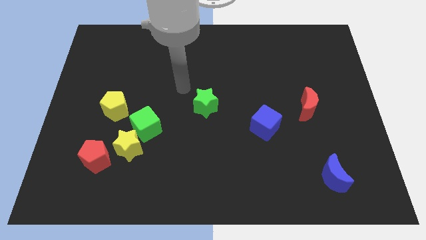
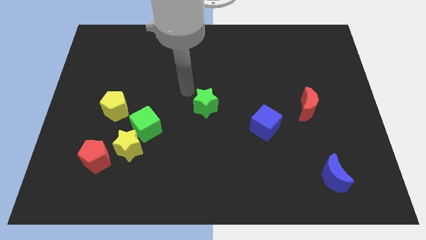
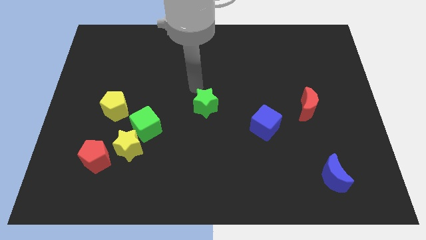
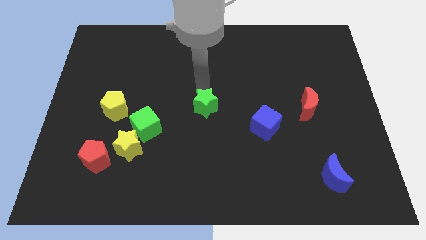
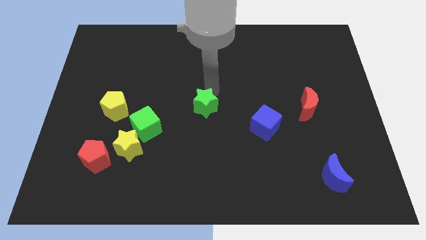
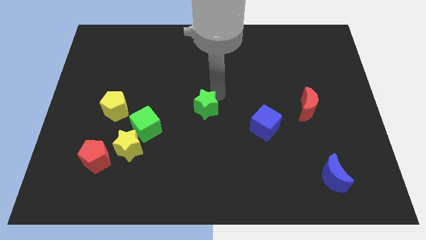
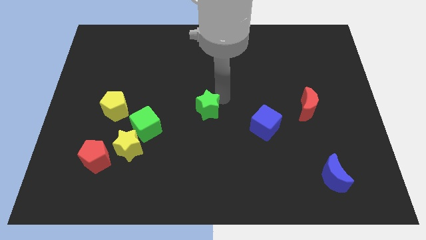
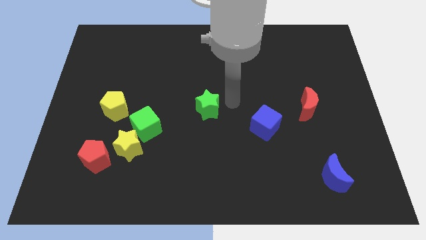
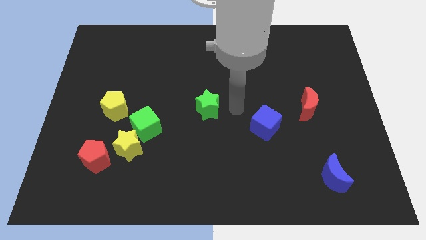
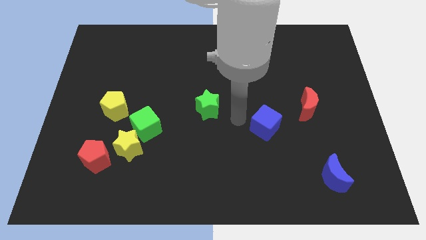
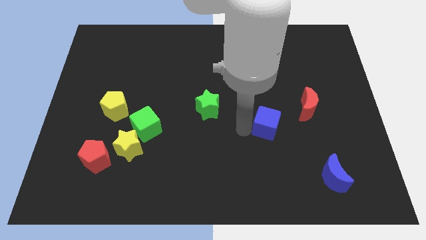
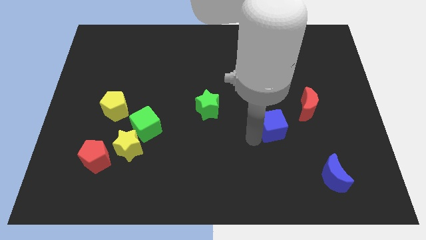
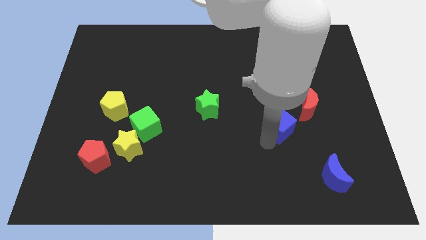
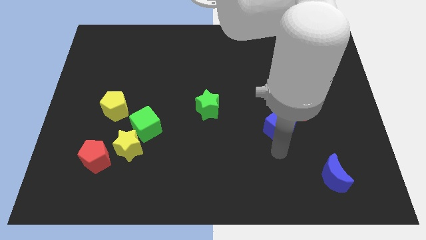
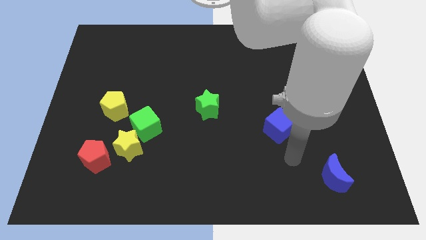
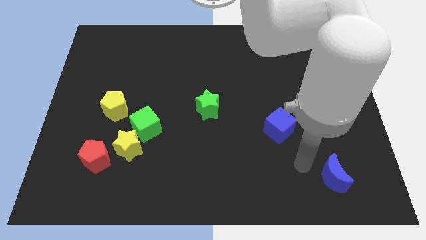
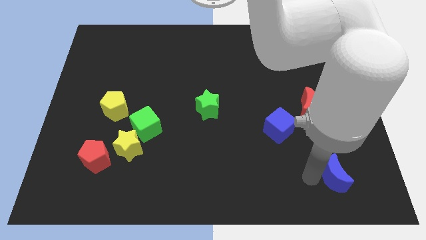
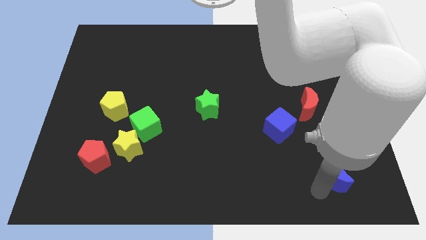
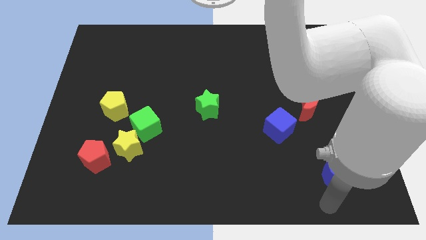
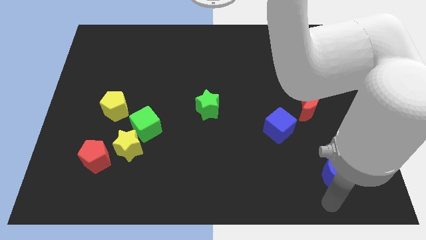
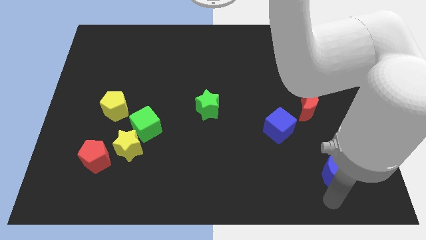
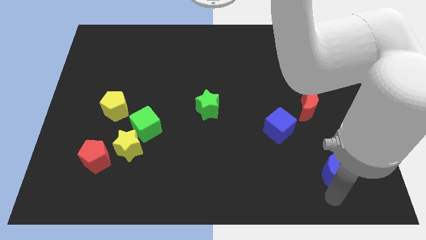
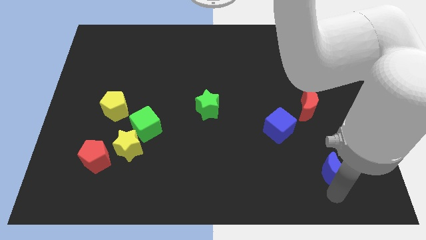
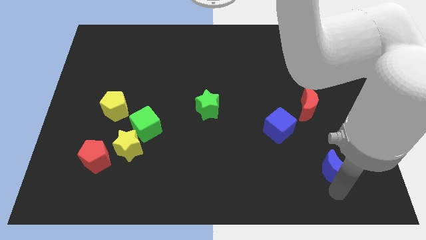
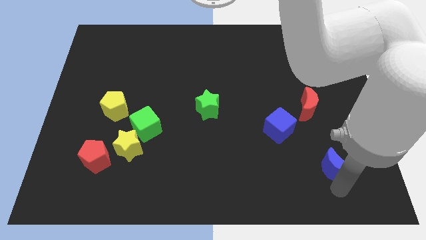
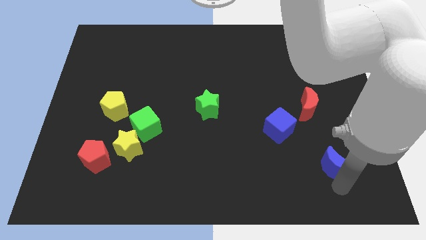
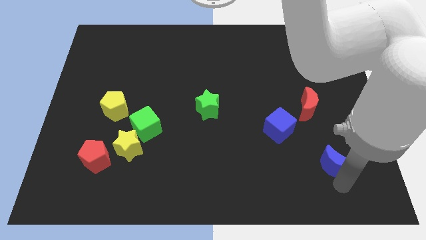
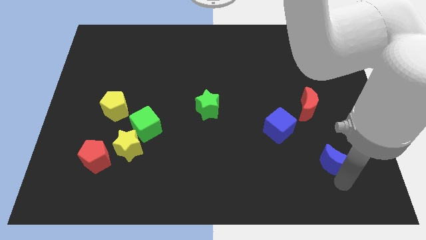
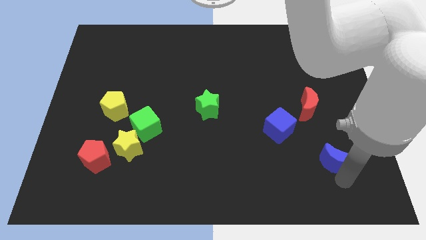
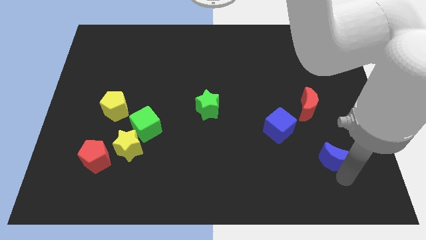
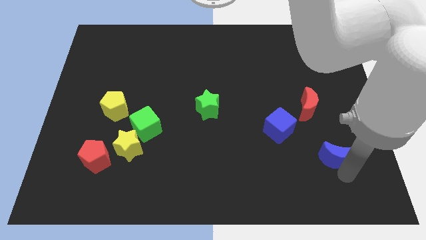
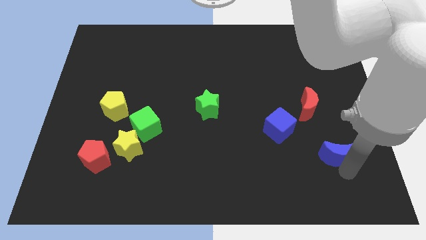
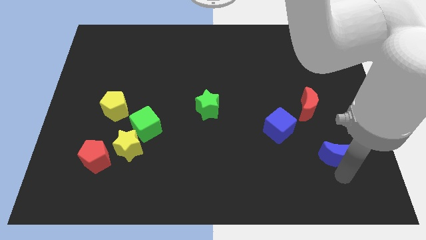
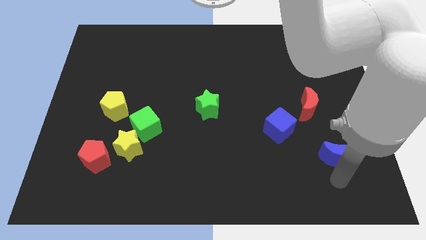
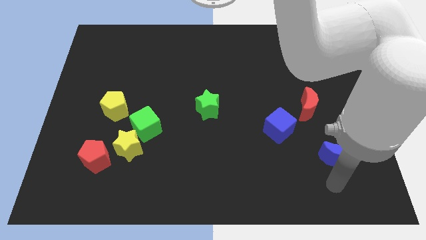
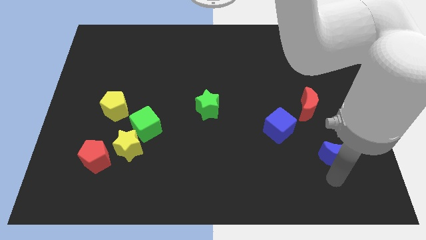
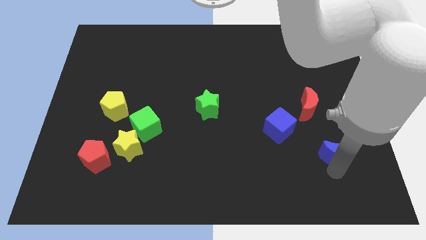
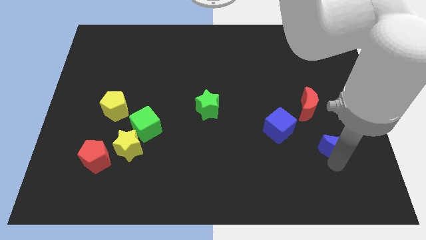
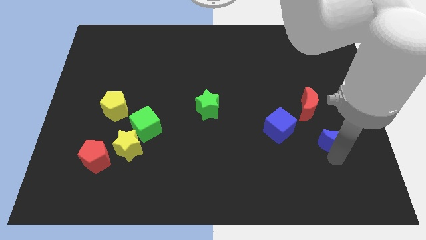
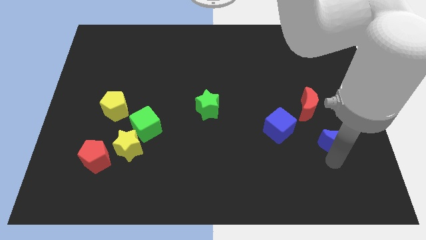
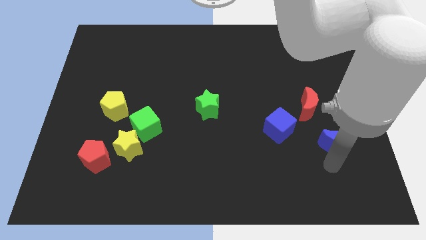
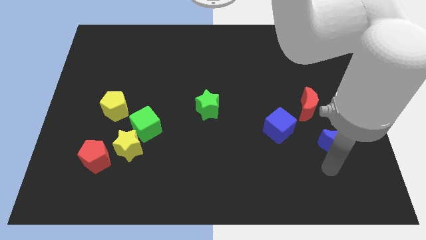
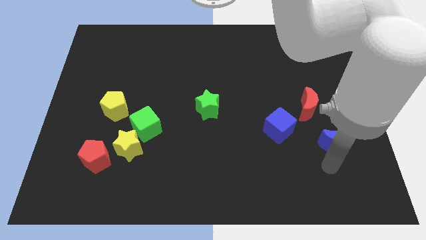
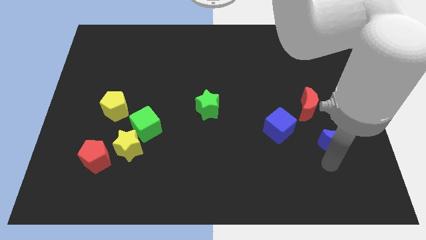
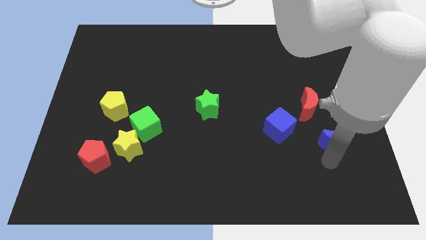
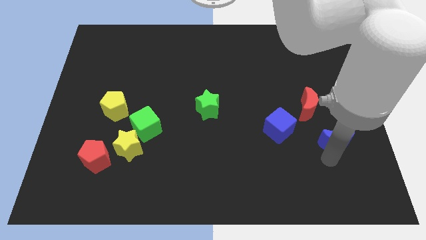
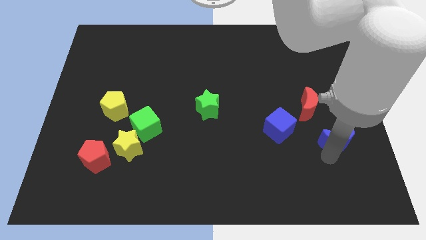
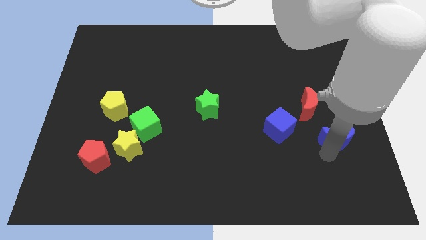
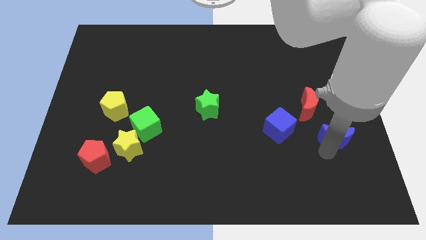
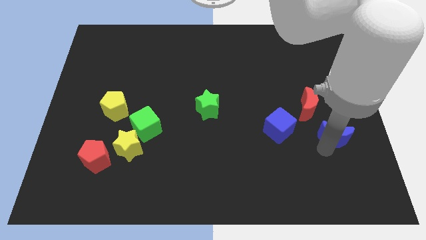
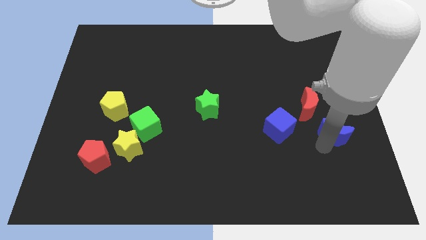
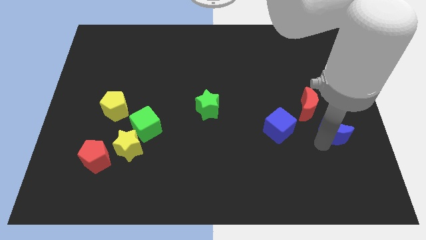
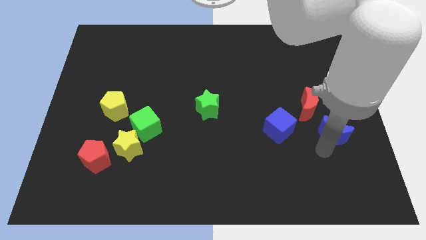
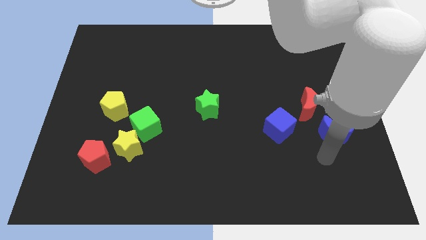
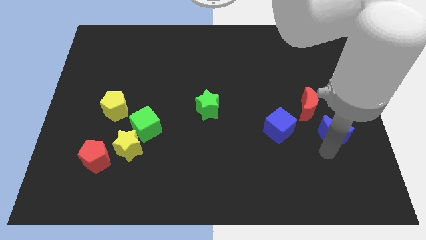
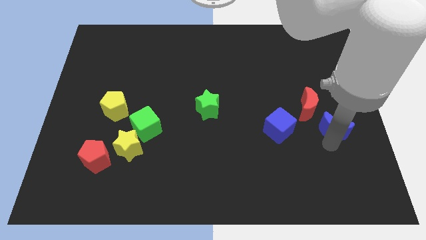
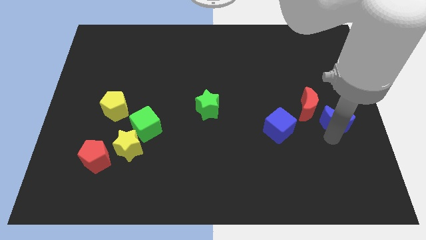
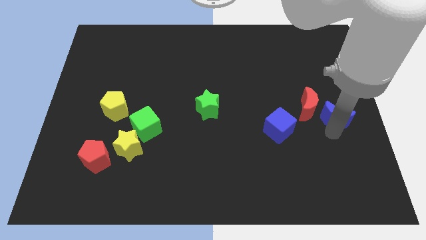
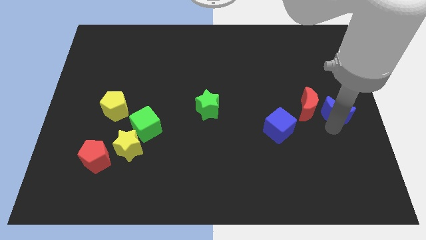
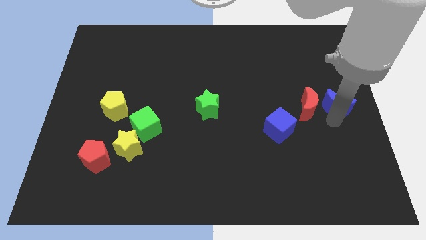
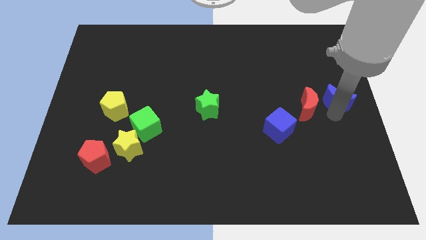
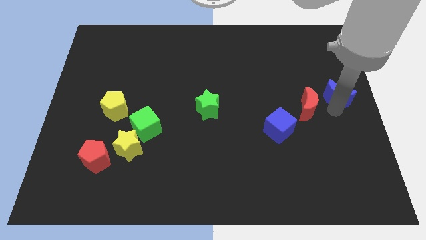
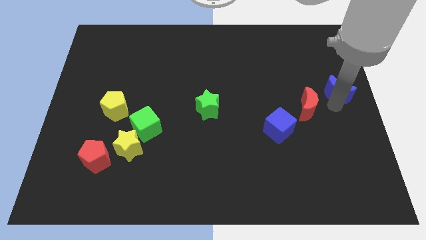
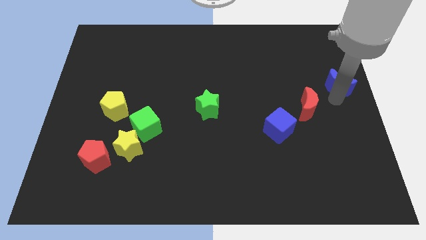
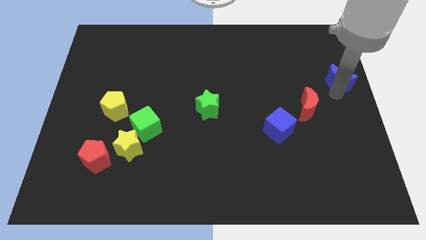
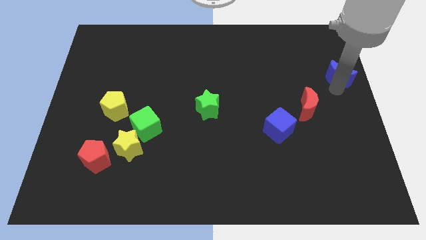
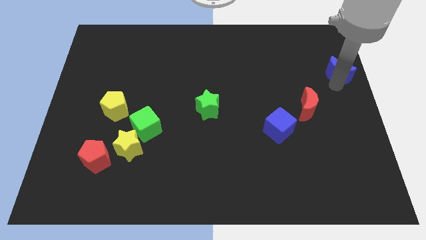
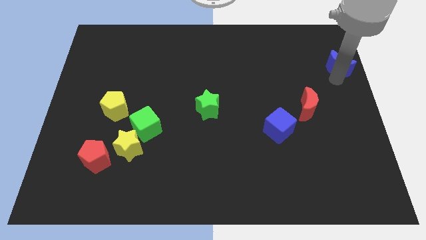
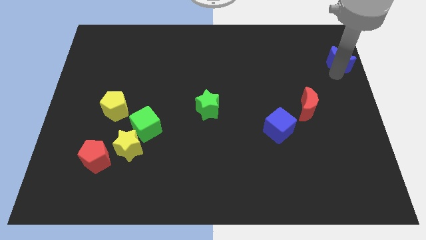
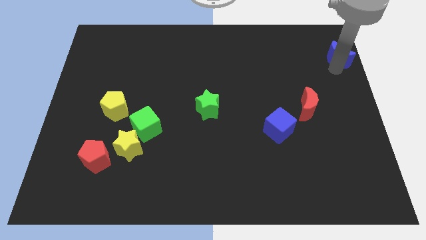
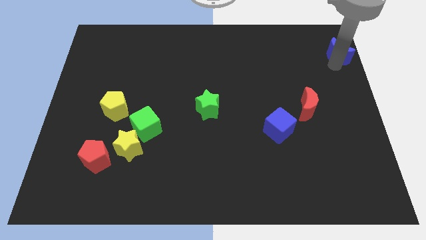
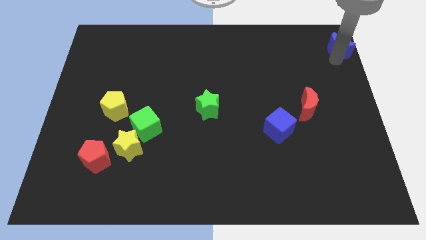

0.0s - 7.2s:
slide the blue moon to the top right
